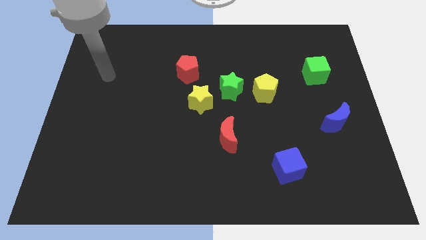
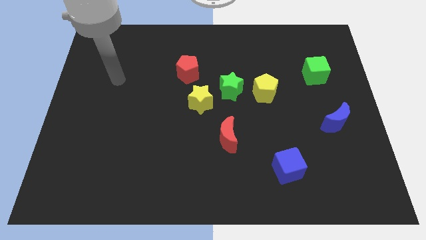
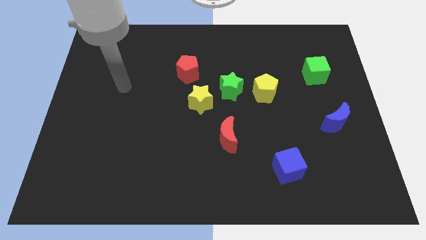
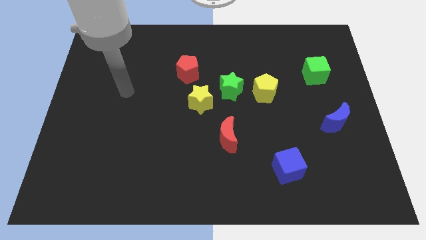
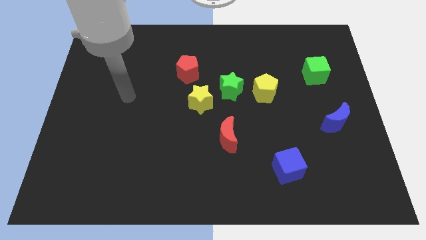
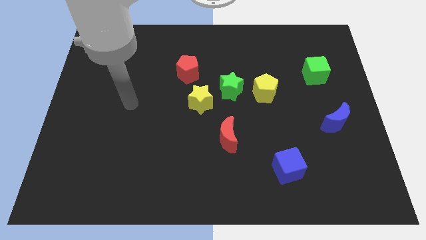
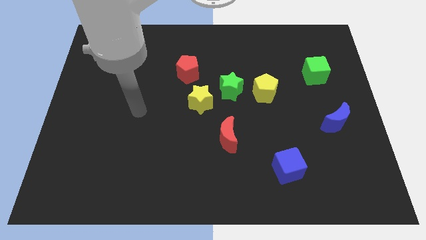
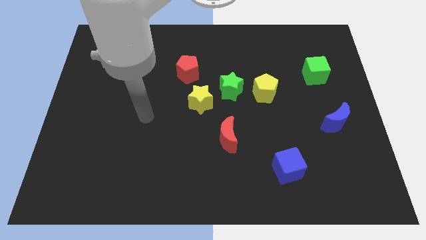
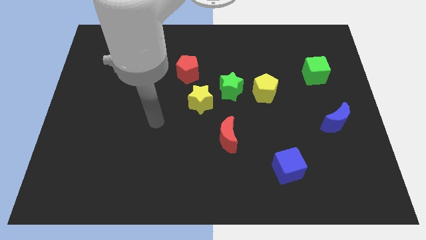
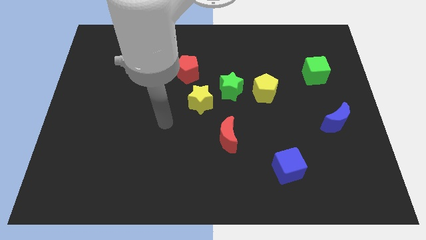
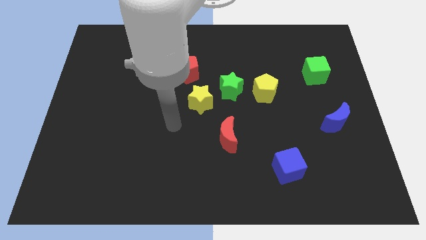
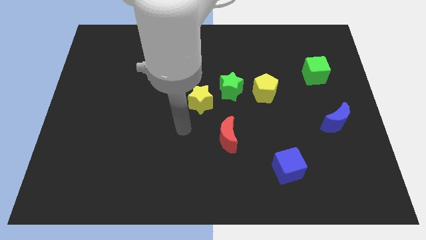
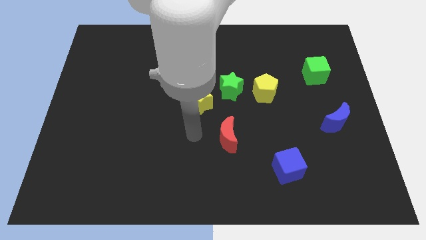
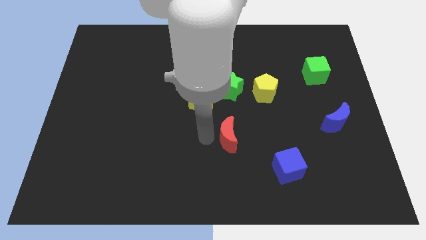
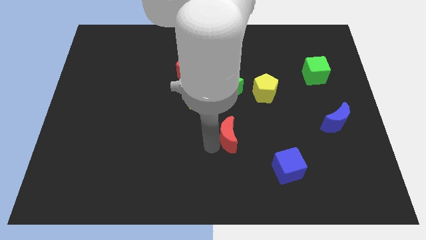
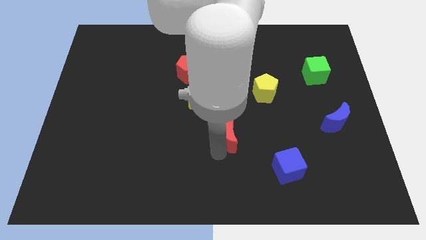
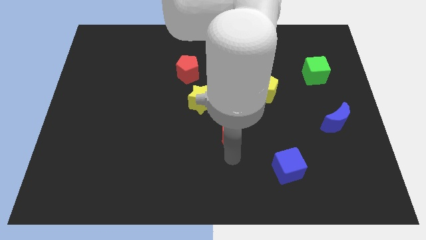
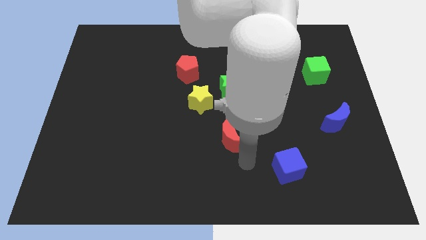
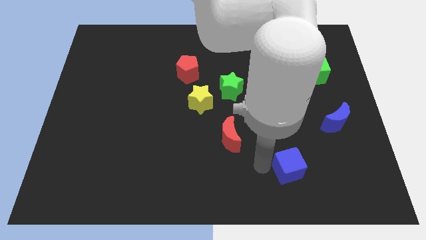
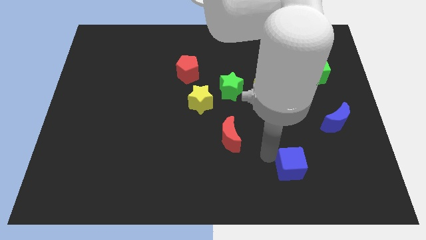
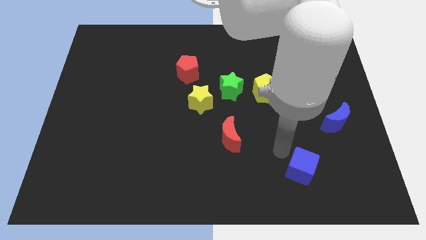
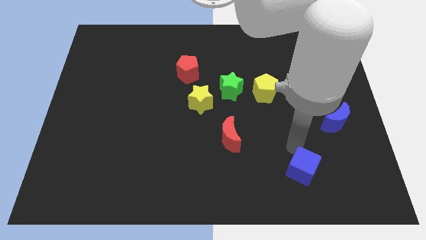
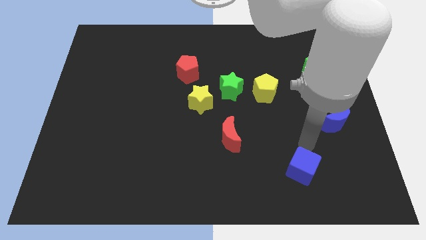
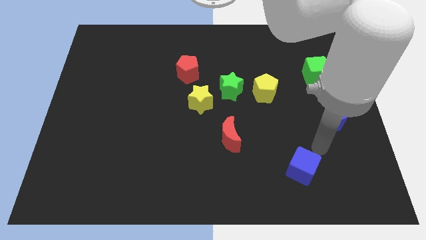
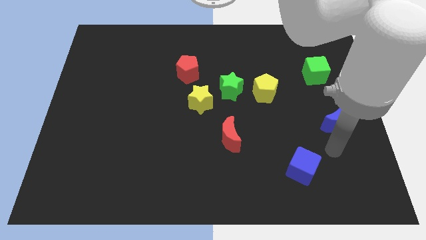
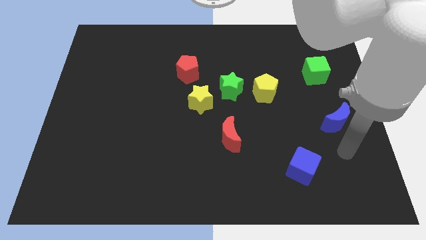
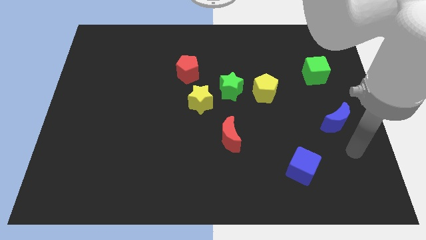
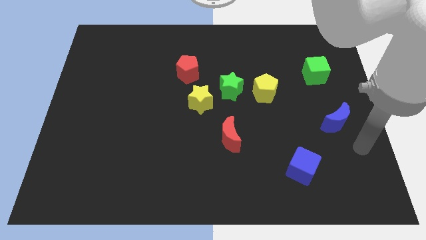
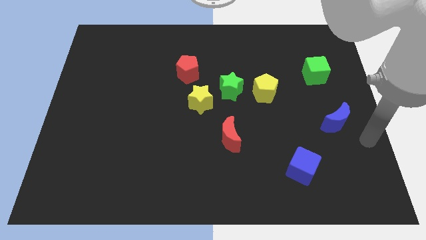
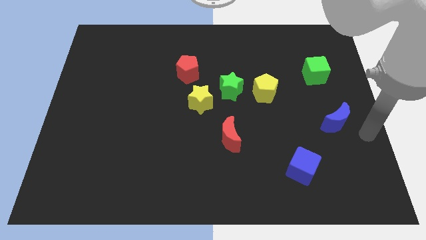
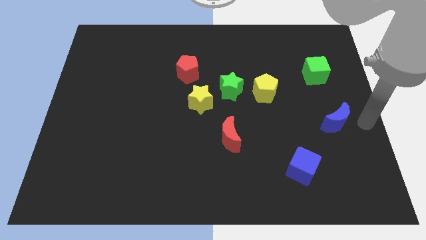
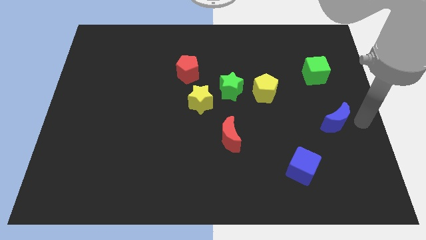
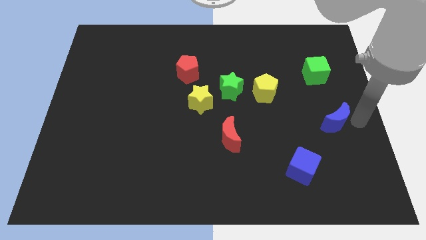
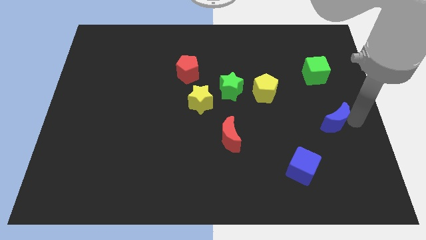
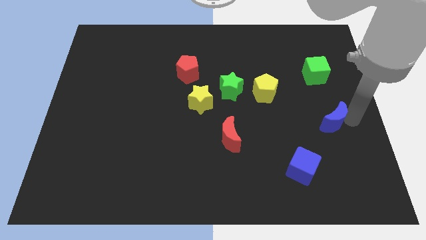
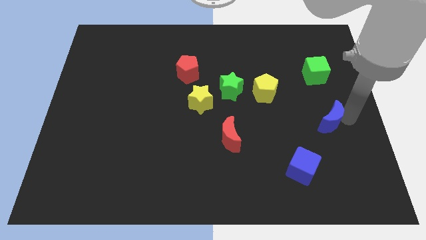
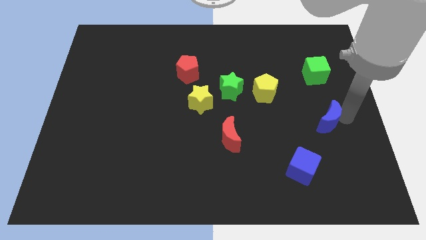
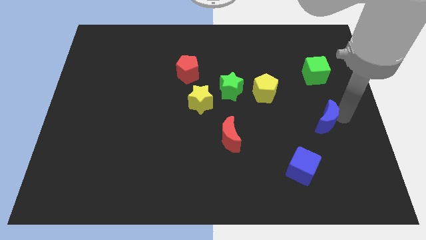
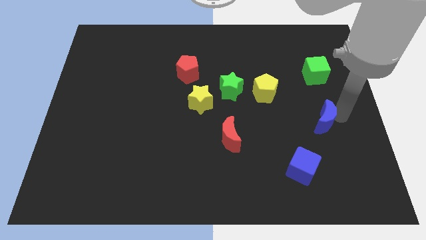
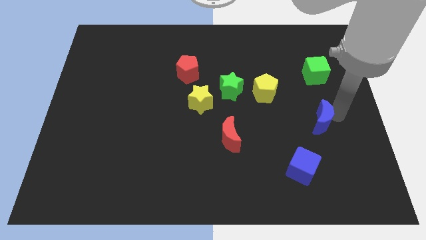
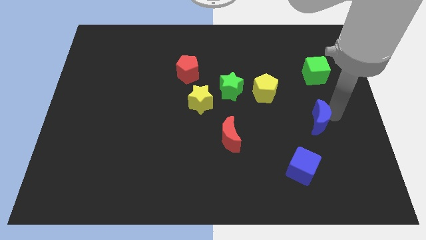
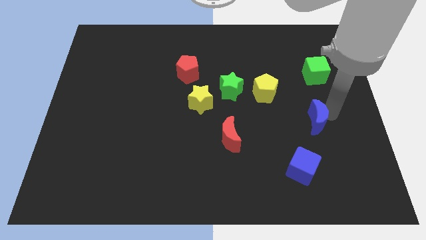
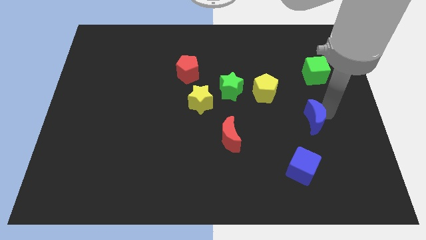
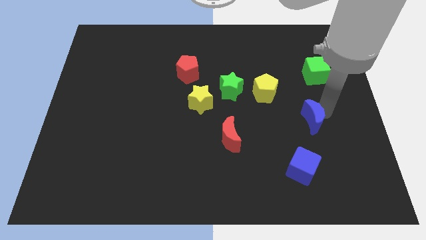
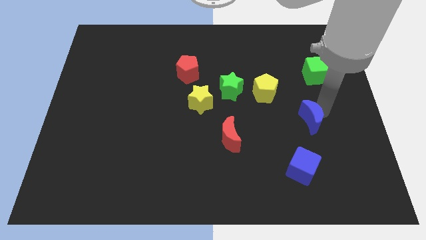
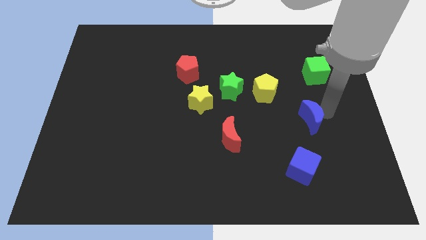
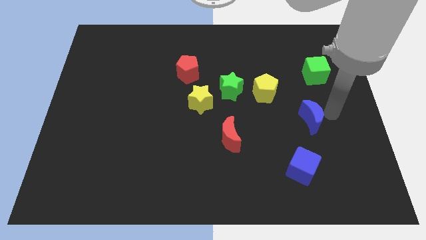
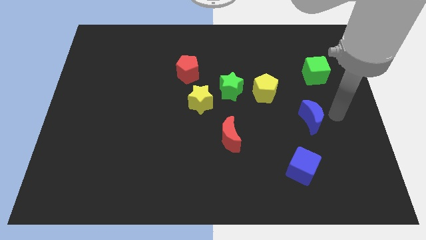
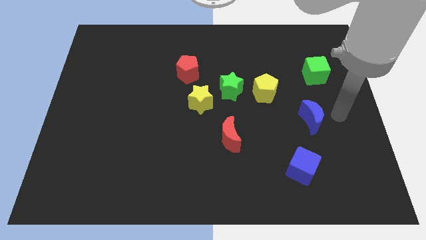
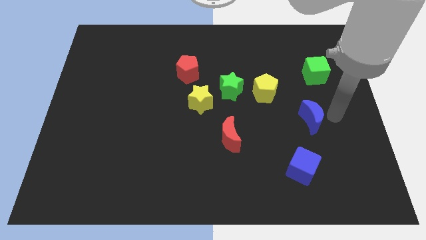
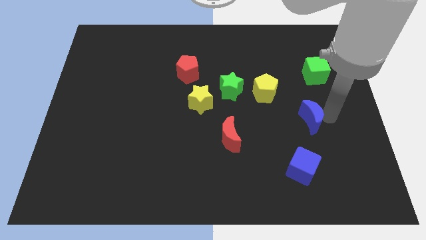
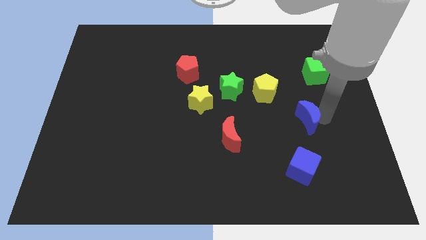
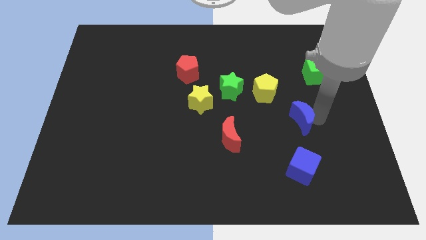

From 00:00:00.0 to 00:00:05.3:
slightly slide the blue moon left

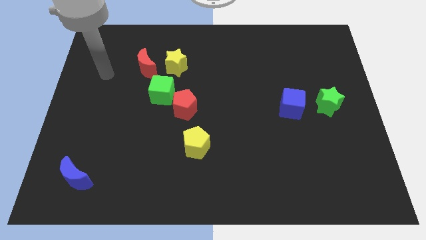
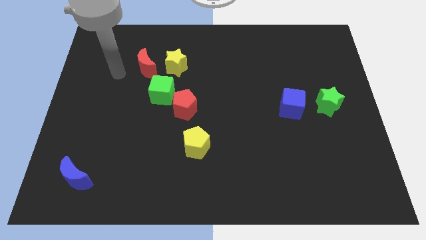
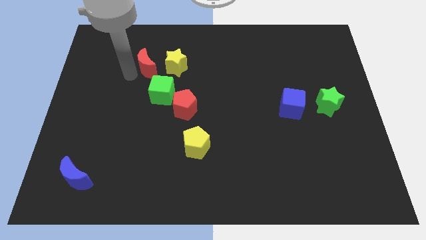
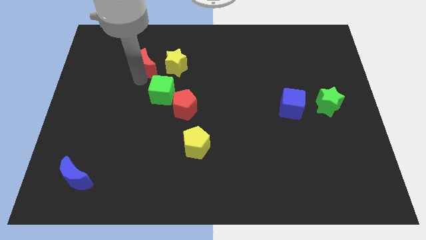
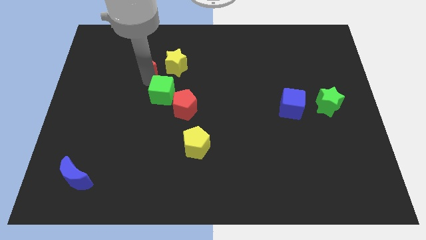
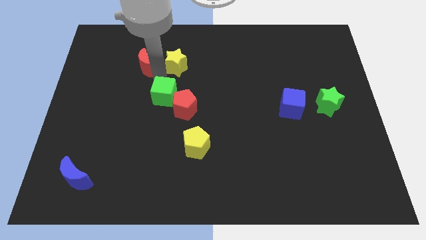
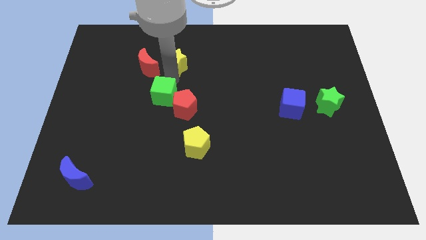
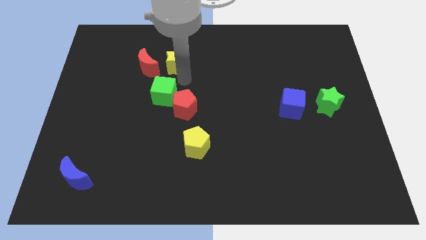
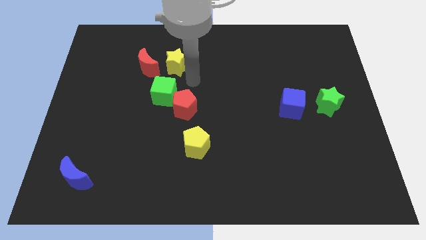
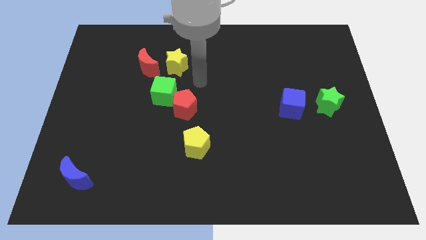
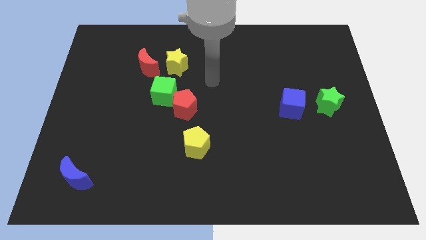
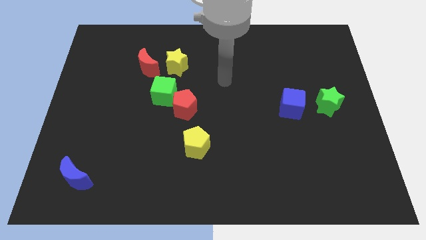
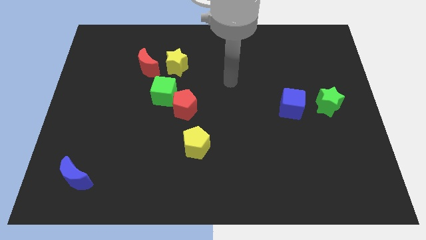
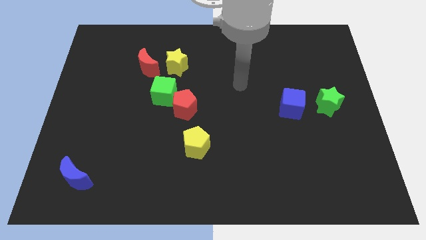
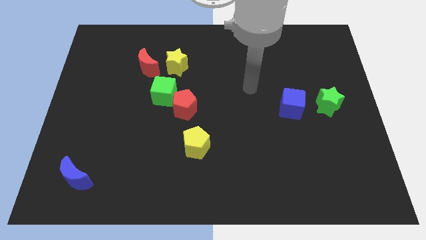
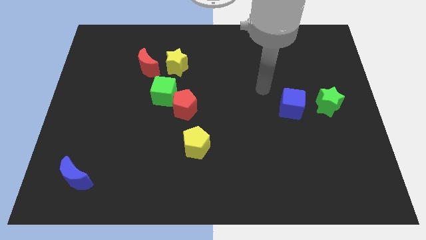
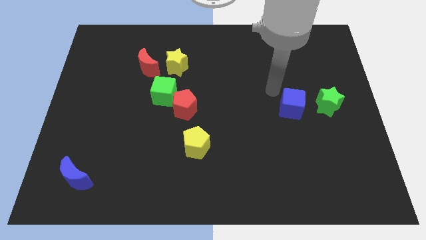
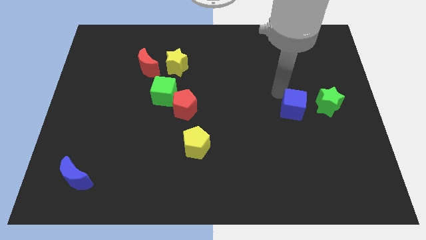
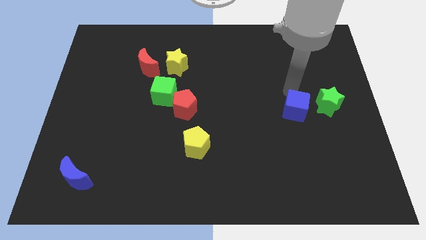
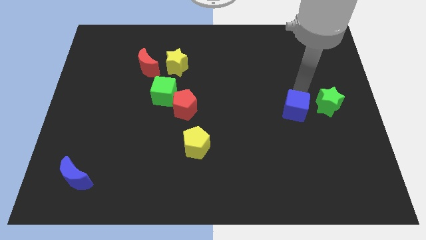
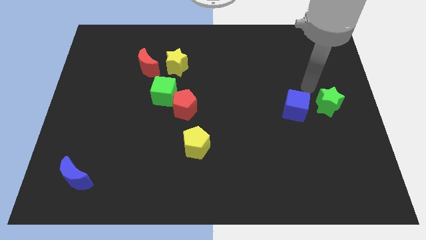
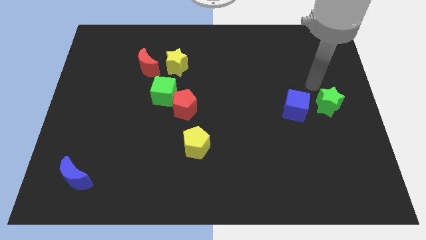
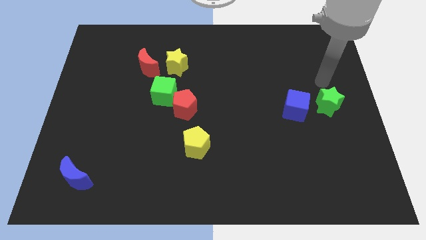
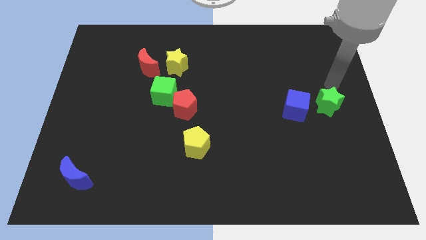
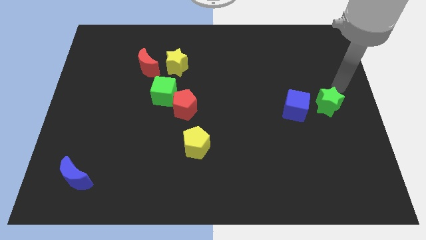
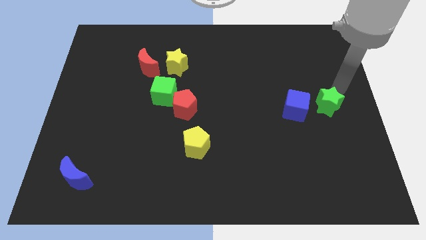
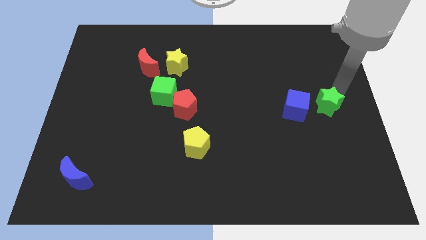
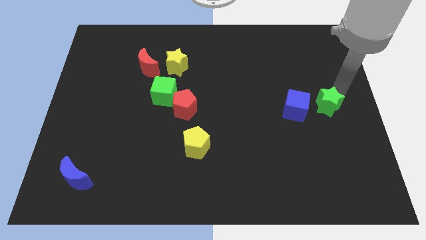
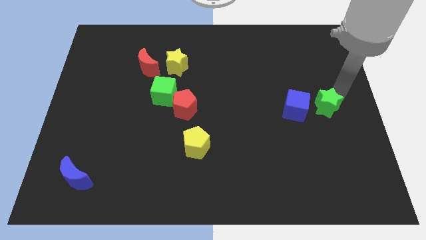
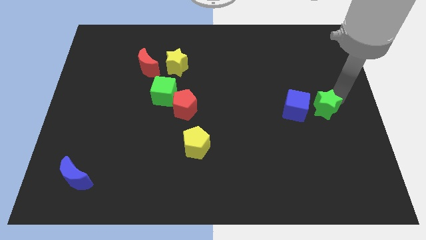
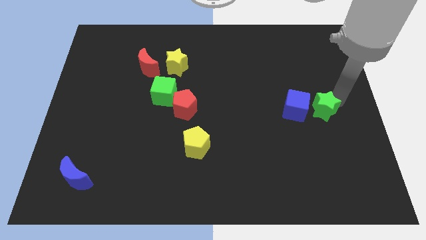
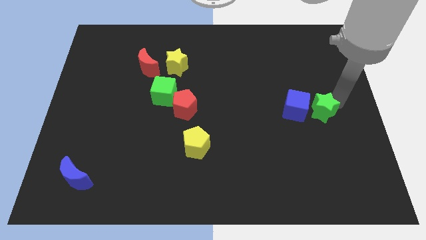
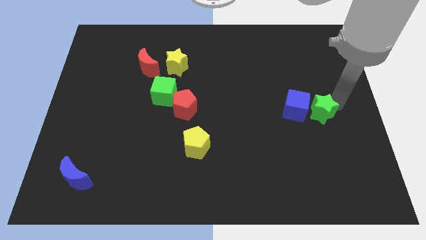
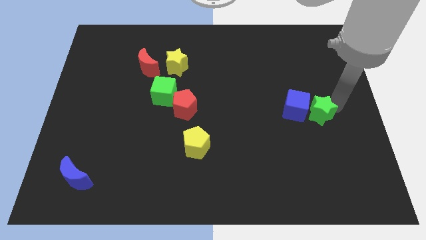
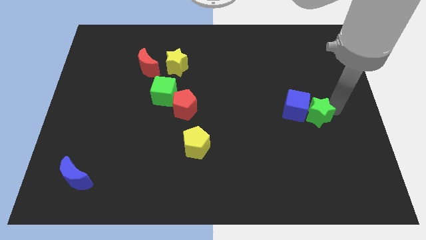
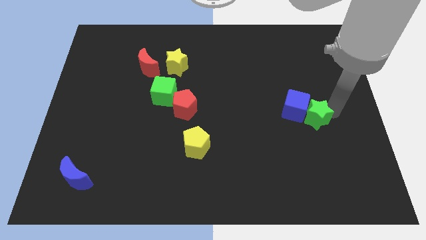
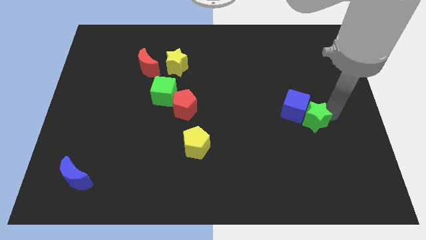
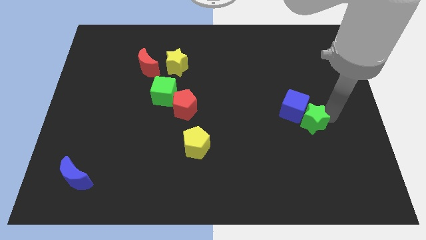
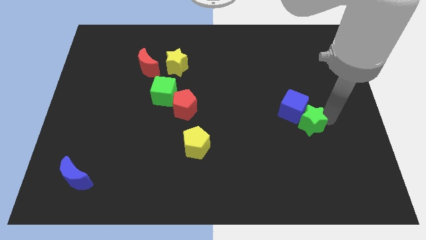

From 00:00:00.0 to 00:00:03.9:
slightly slide the green star downwards and left diagonally
